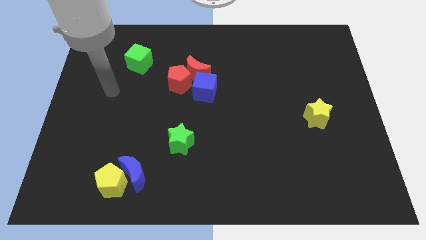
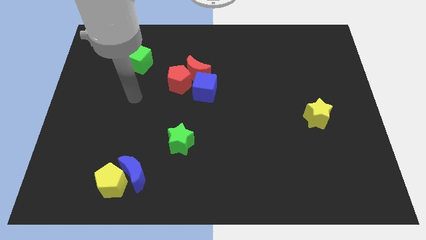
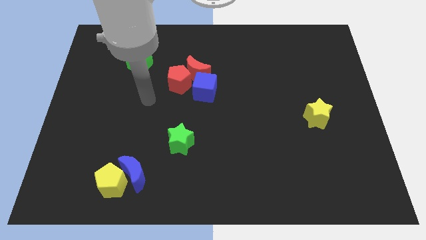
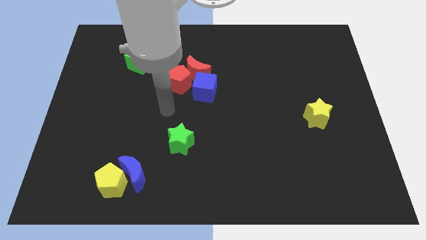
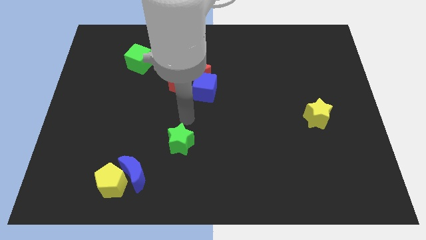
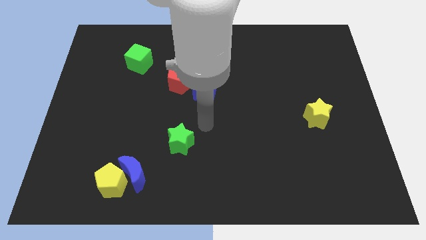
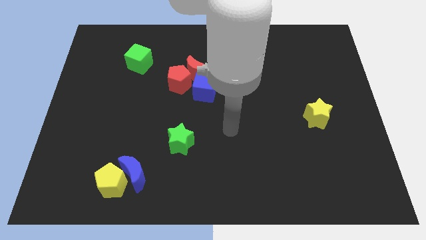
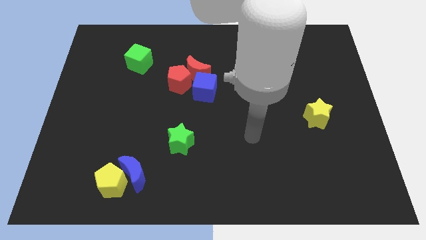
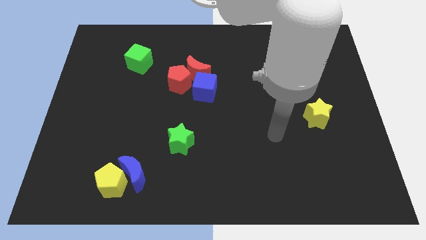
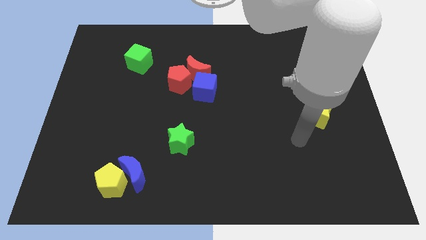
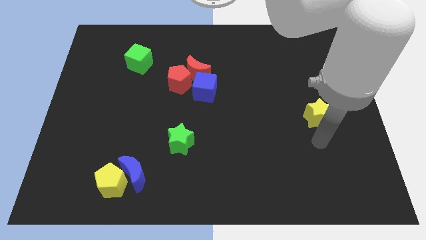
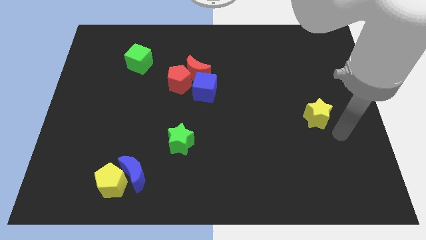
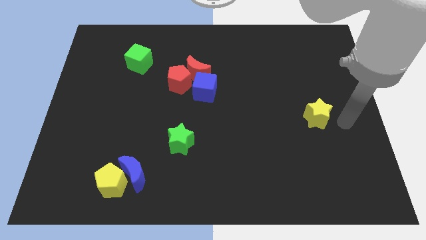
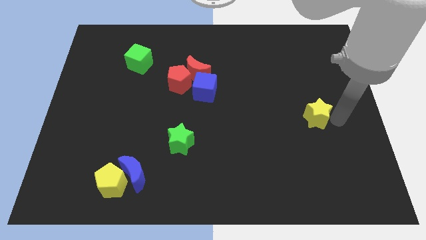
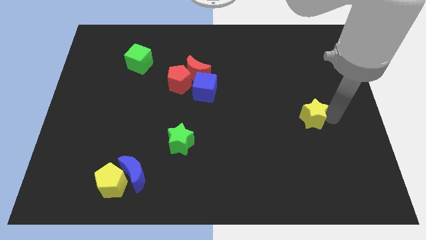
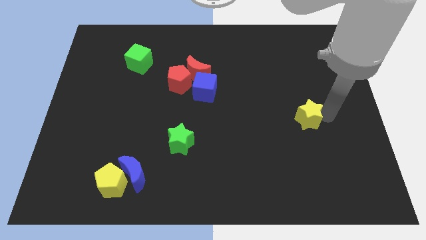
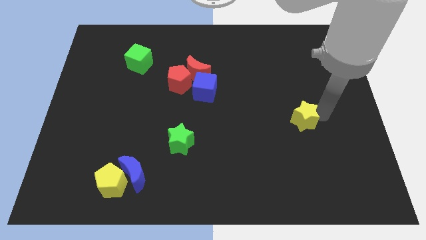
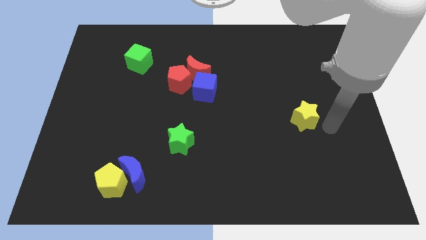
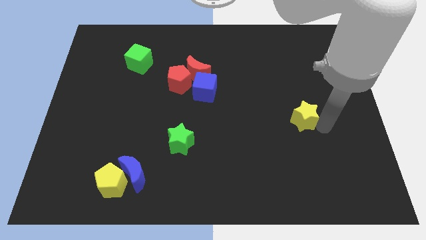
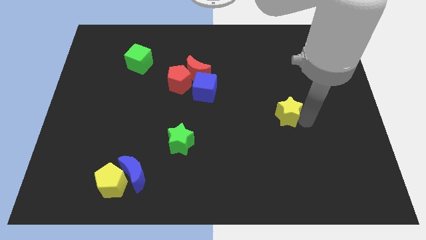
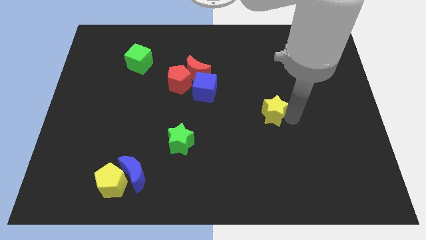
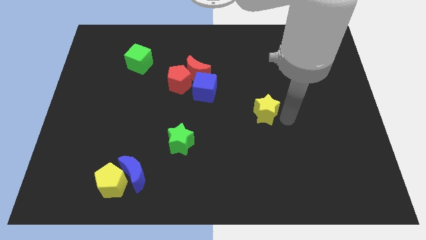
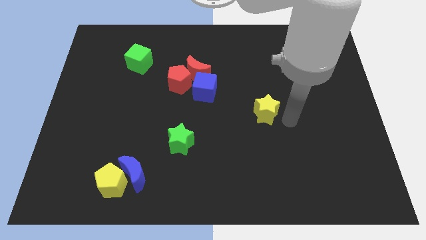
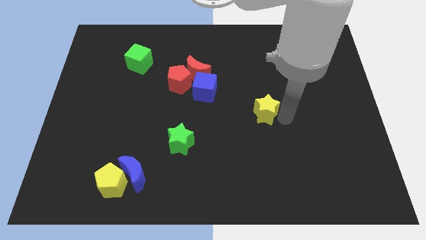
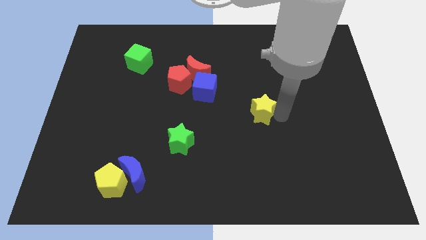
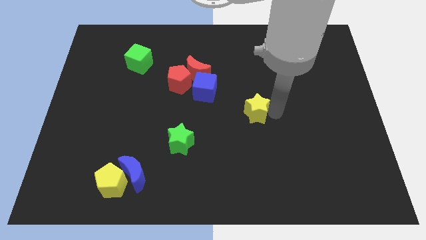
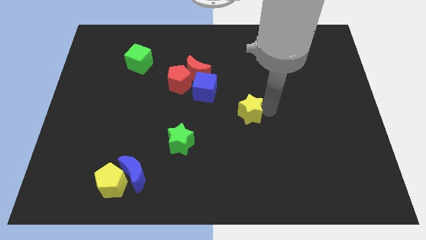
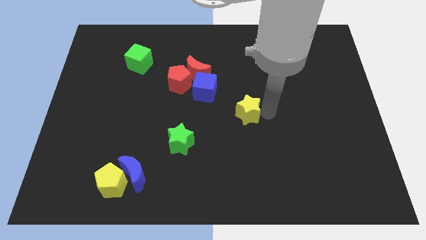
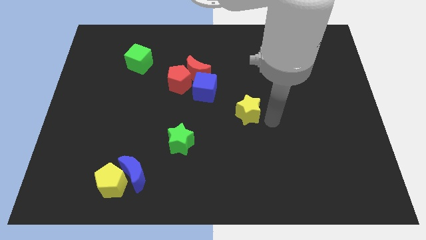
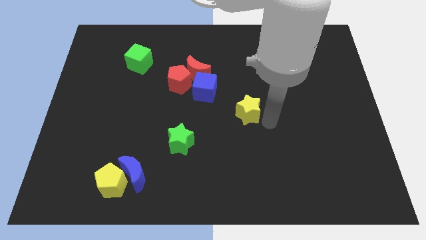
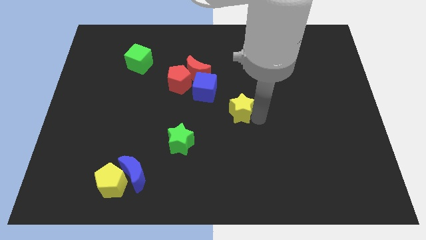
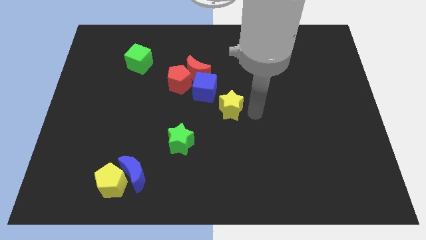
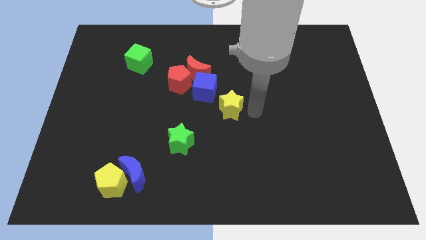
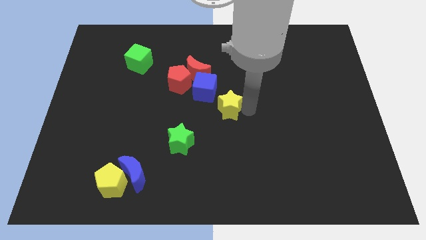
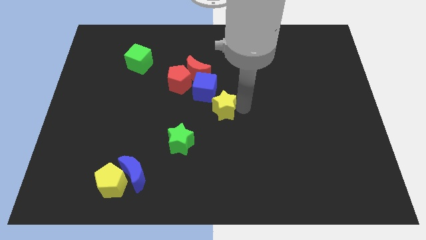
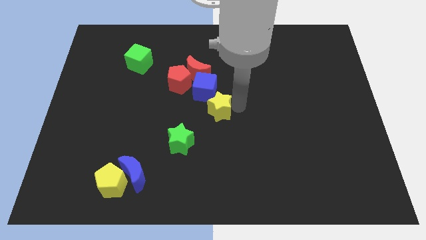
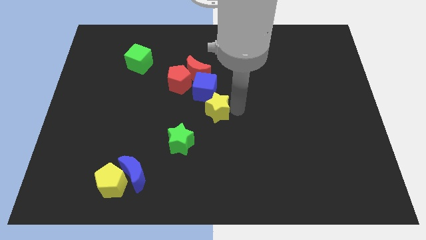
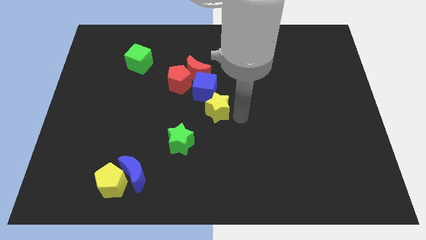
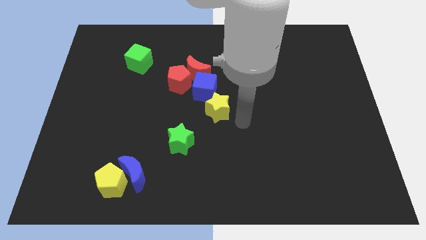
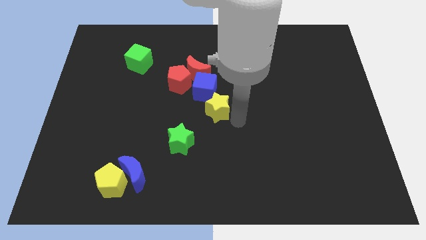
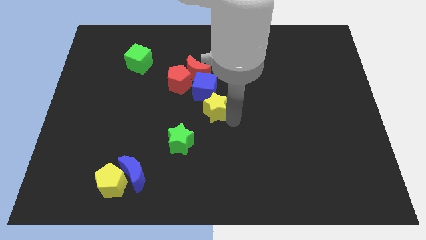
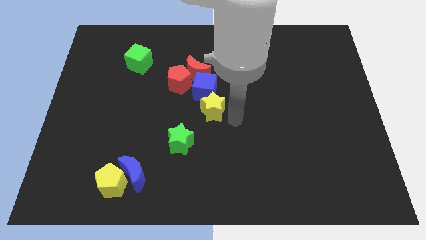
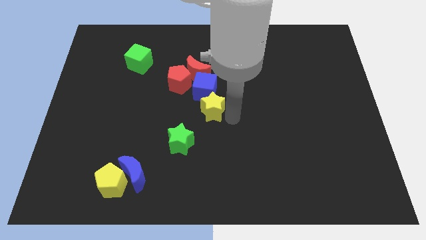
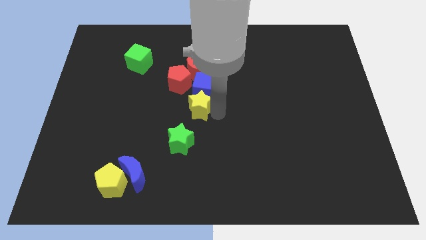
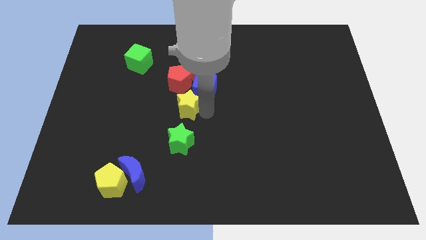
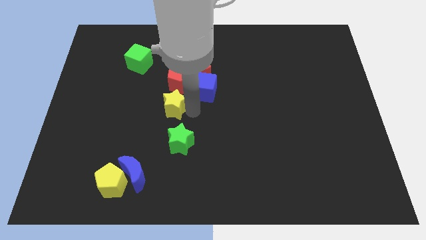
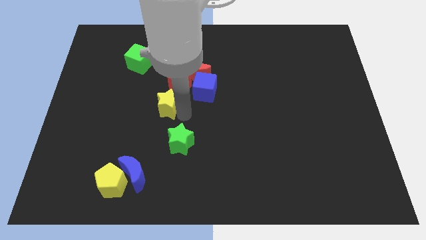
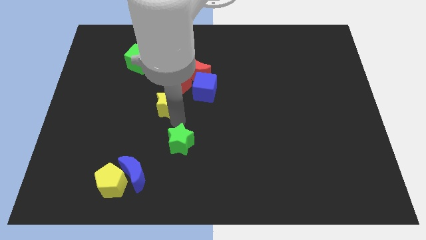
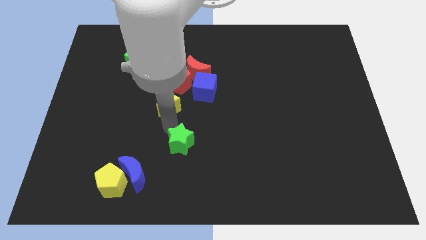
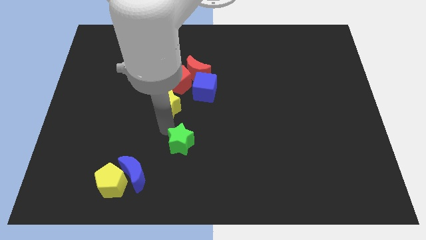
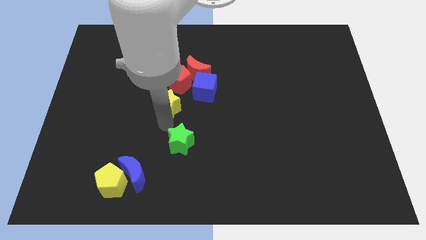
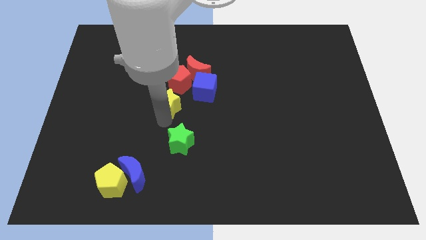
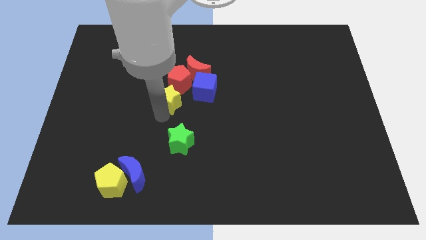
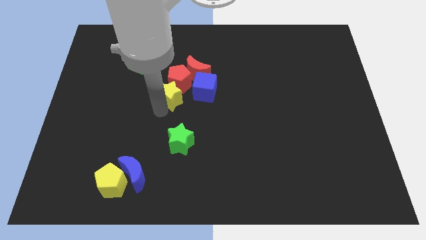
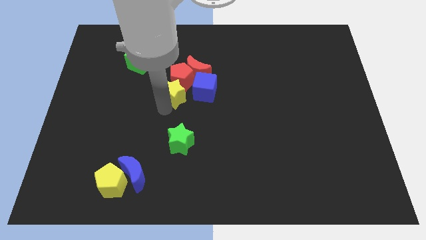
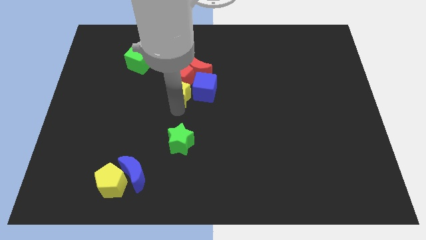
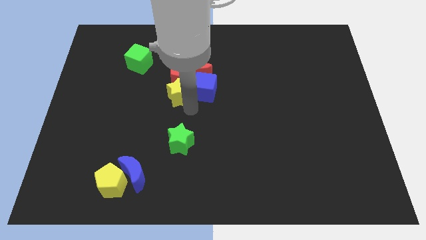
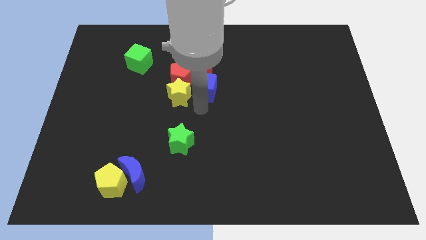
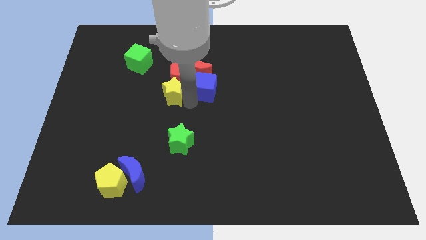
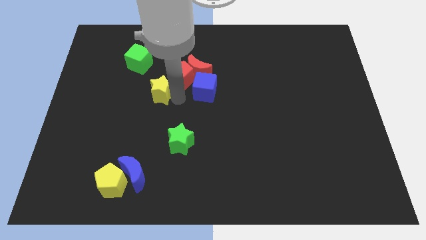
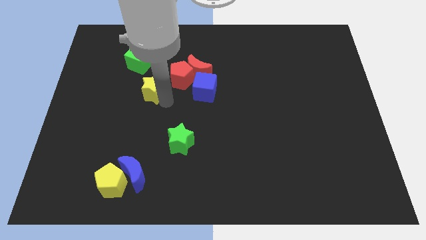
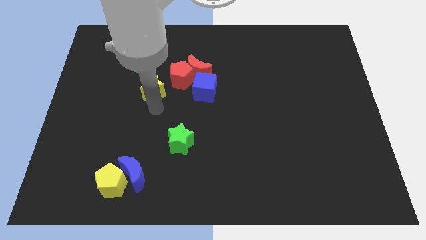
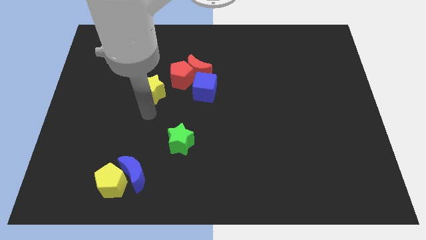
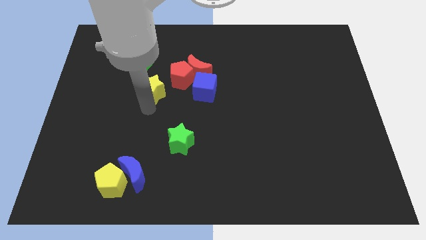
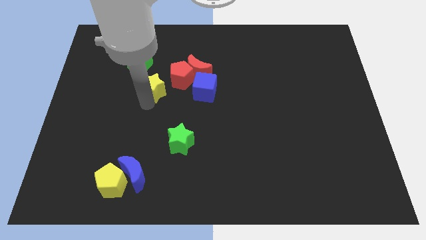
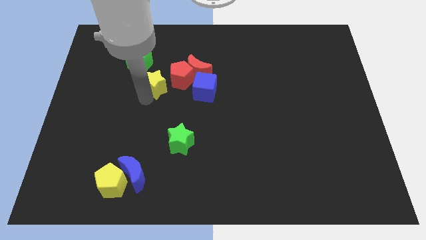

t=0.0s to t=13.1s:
move the yellow star left of the red moon

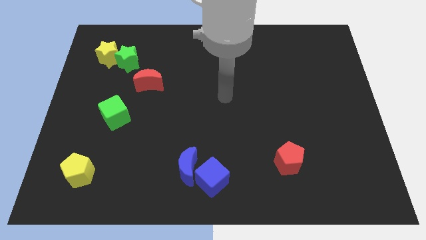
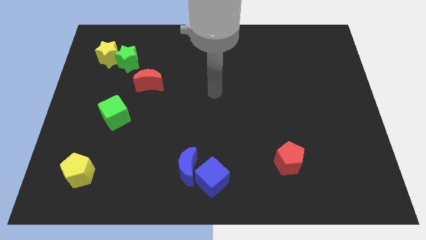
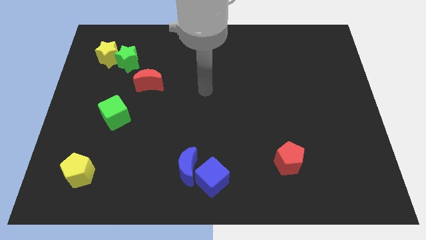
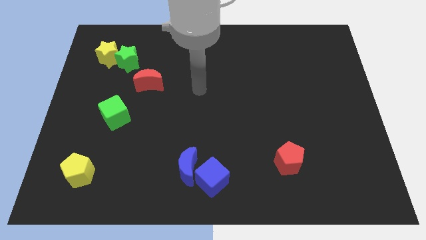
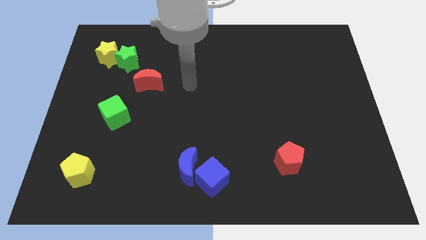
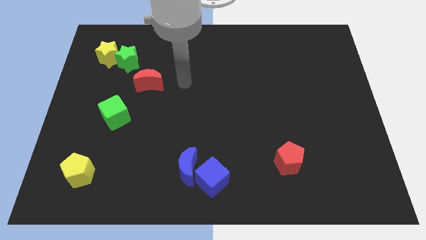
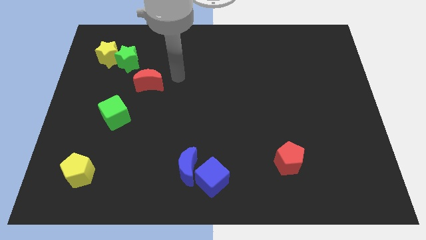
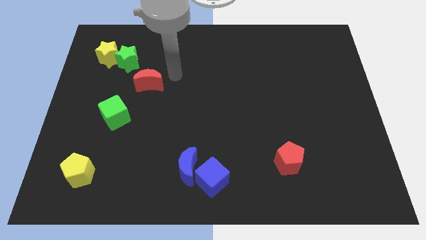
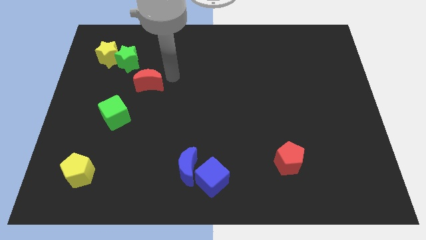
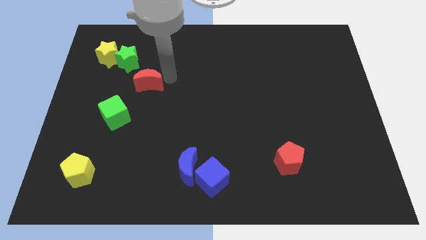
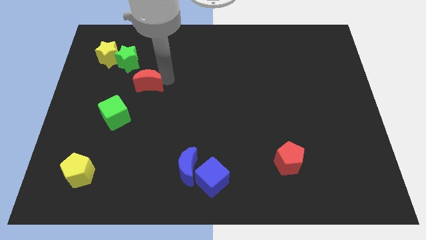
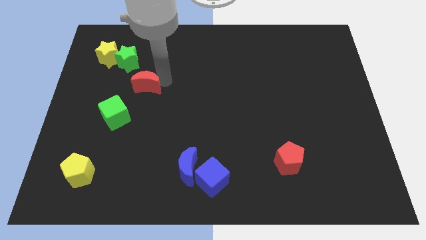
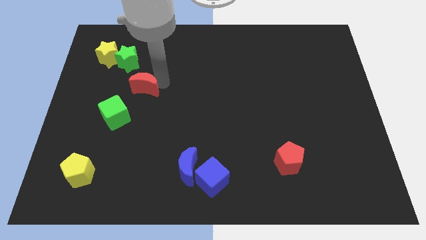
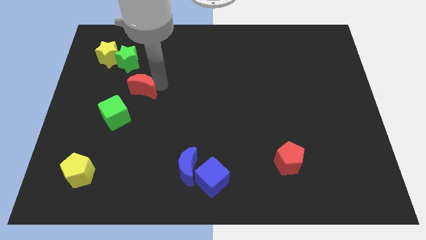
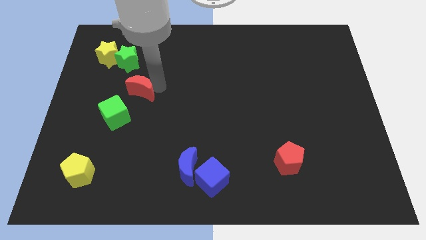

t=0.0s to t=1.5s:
slide the red moon to the bottom side of the green star
